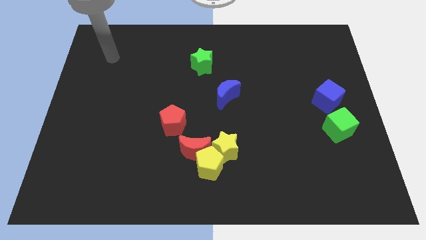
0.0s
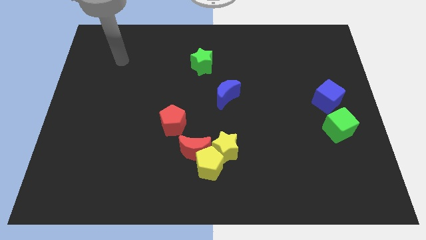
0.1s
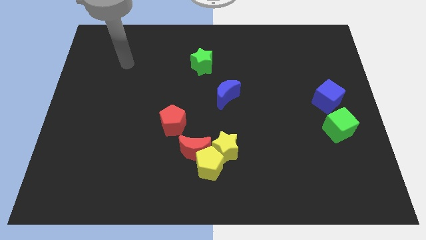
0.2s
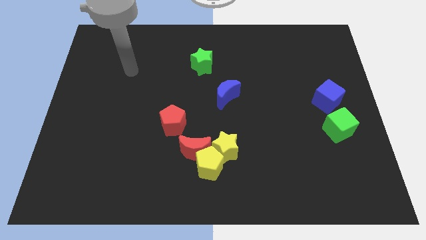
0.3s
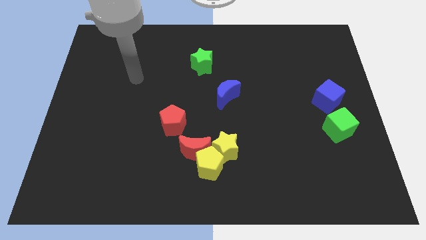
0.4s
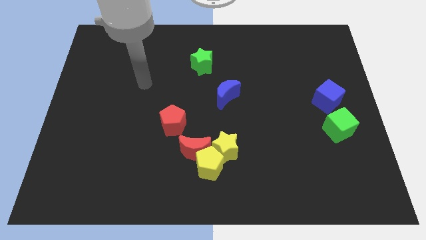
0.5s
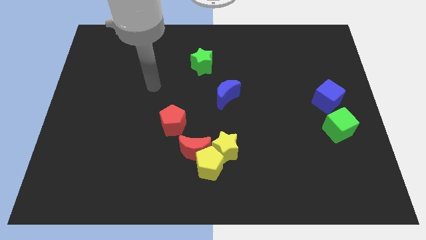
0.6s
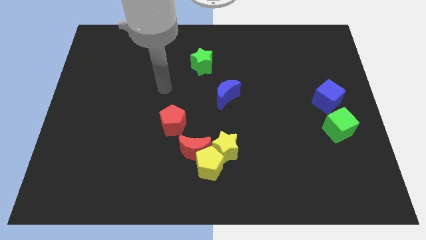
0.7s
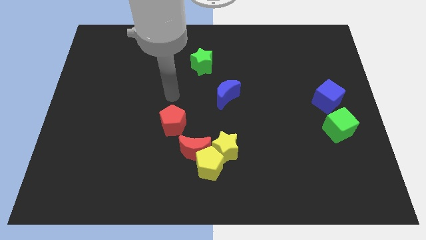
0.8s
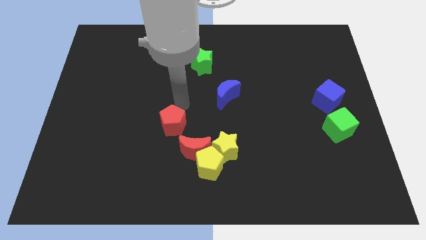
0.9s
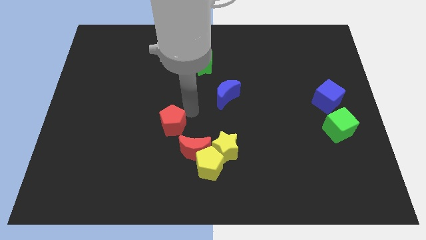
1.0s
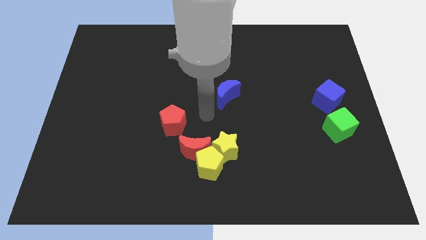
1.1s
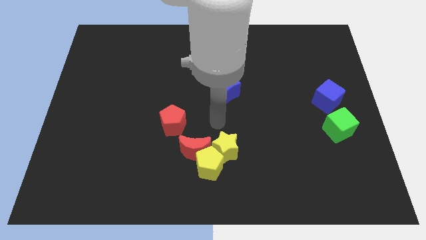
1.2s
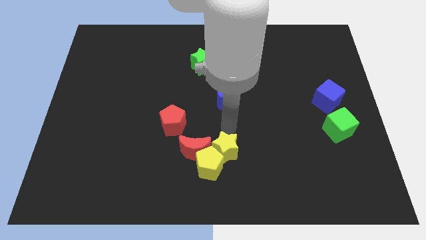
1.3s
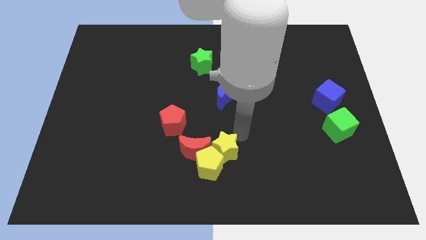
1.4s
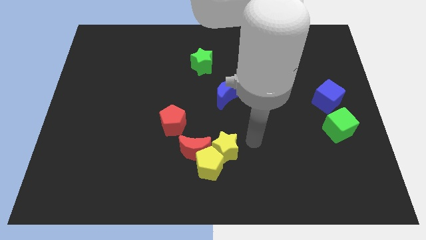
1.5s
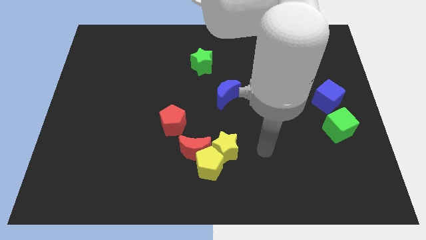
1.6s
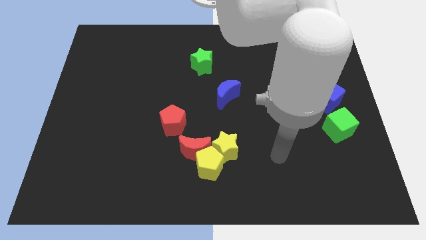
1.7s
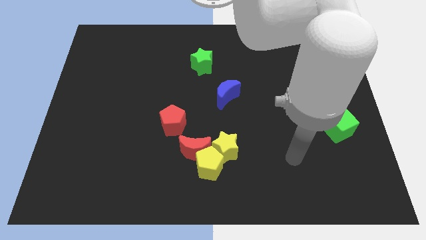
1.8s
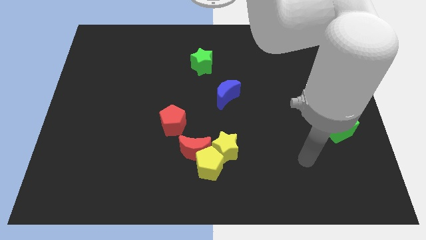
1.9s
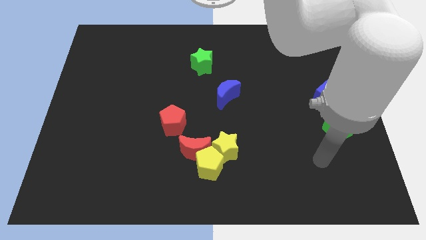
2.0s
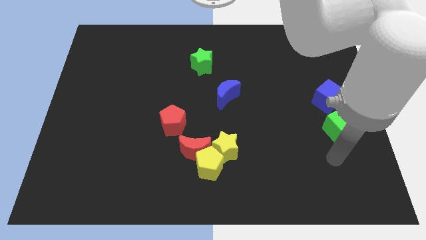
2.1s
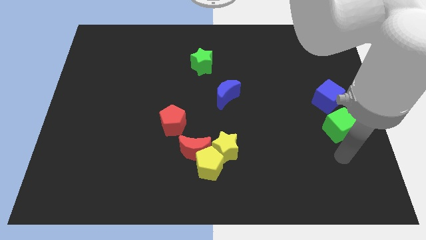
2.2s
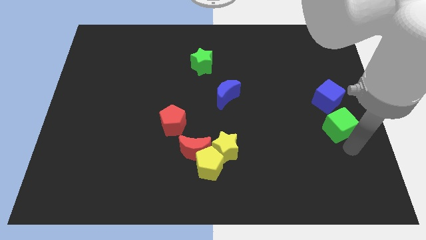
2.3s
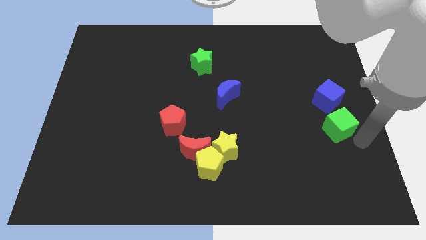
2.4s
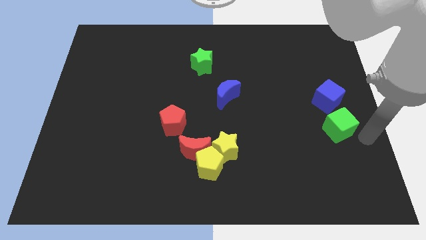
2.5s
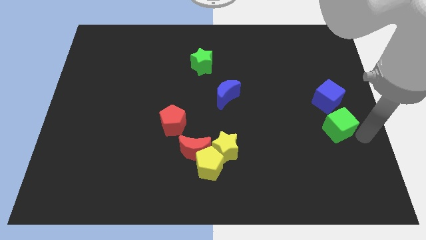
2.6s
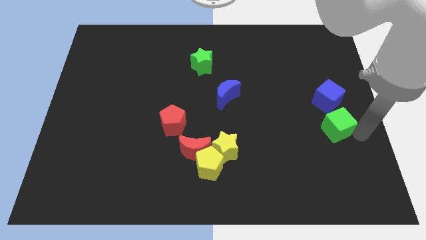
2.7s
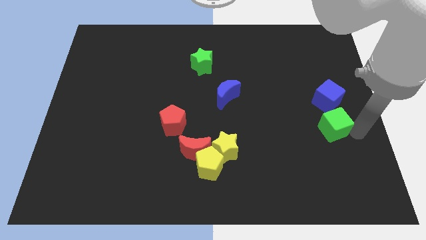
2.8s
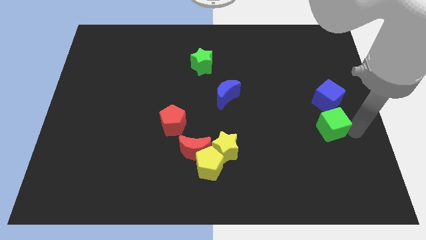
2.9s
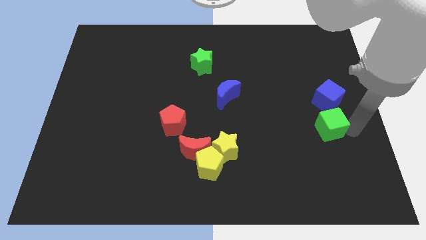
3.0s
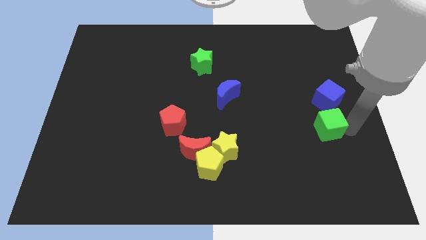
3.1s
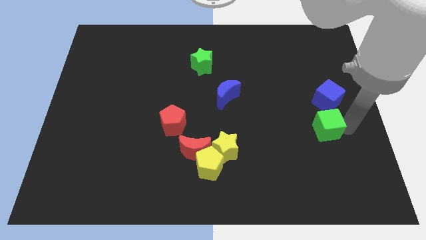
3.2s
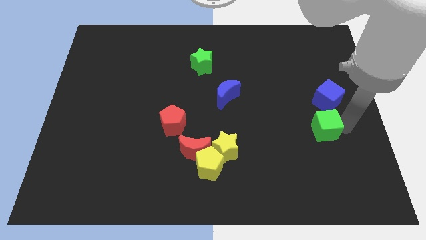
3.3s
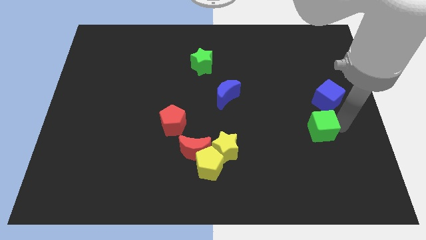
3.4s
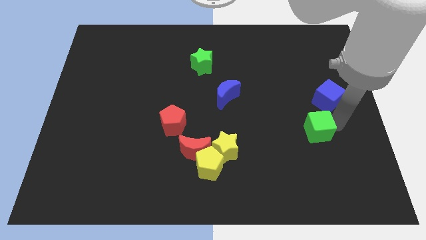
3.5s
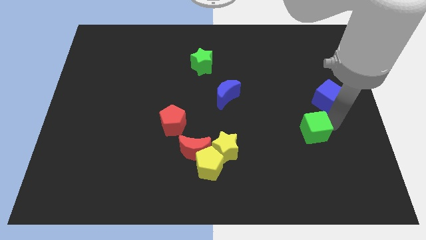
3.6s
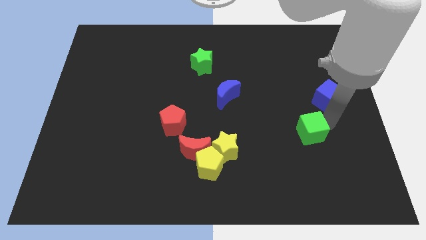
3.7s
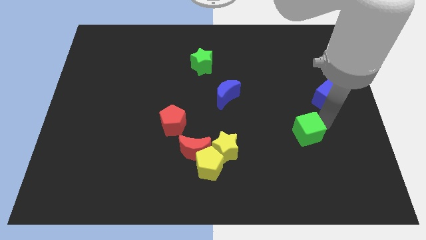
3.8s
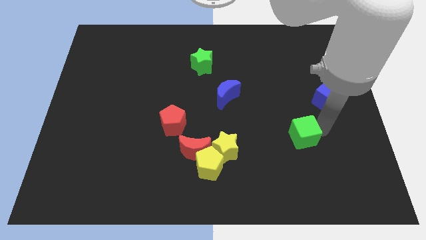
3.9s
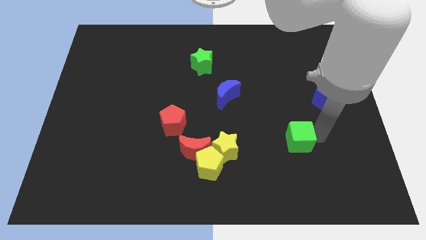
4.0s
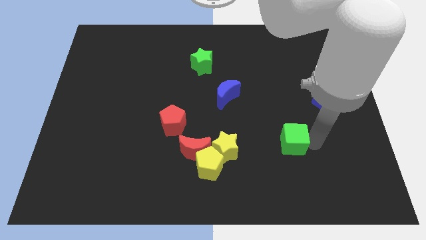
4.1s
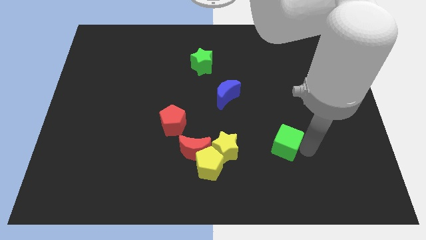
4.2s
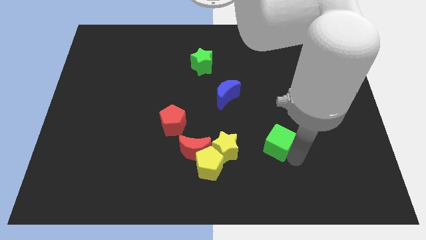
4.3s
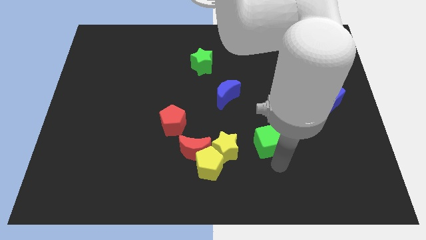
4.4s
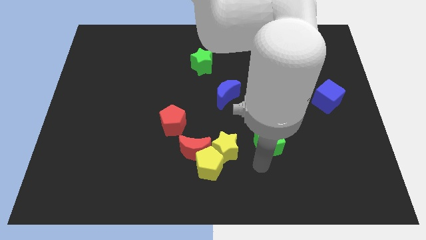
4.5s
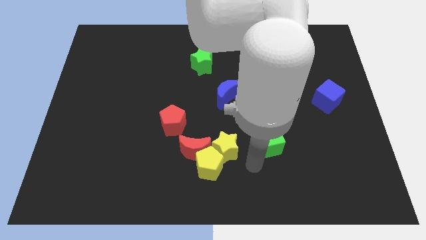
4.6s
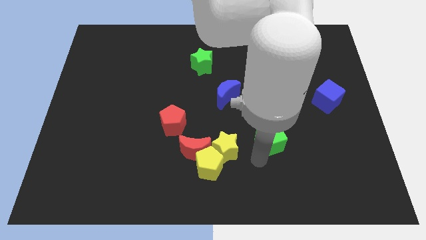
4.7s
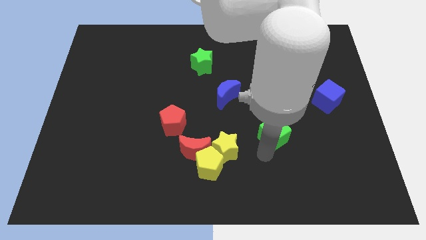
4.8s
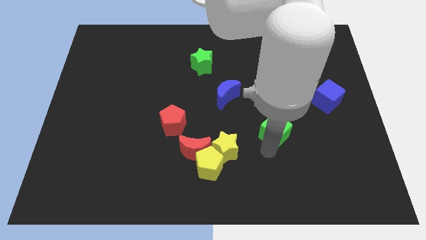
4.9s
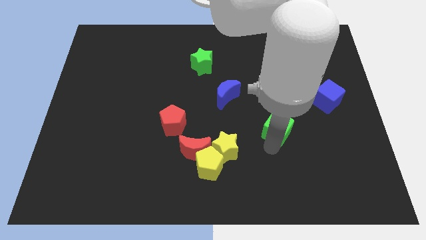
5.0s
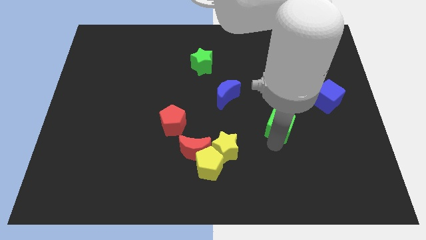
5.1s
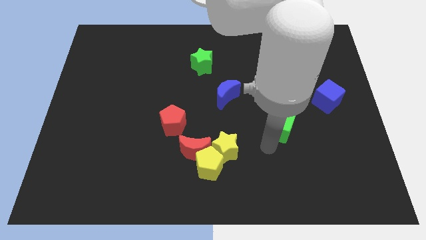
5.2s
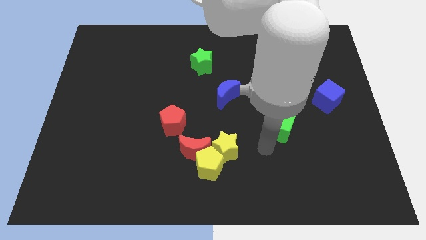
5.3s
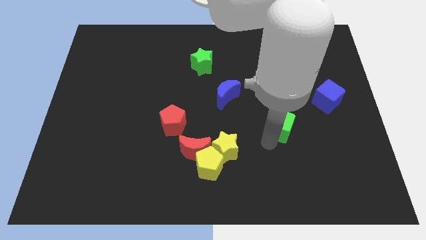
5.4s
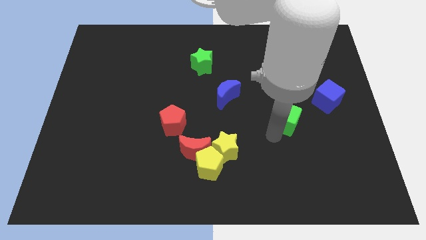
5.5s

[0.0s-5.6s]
slide the green cube a little diagonally upwards and left

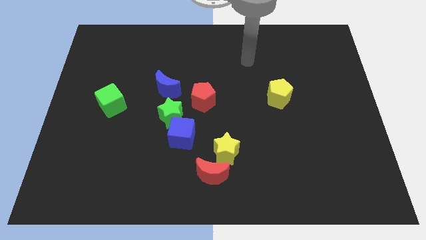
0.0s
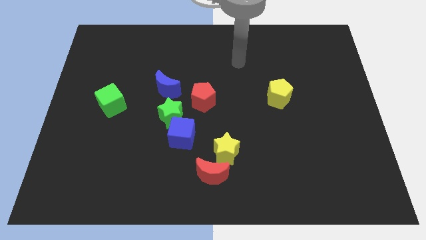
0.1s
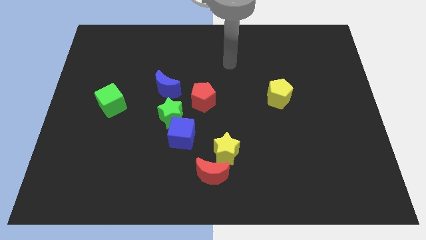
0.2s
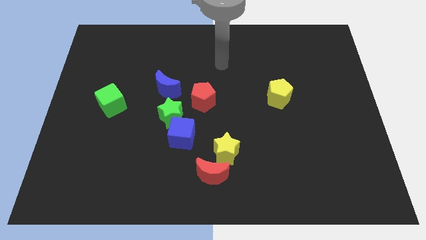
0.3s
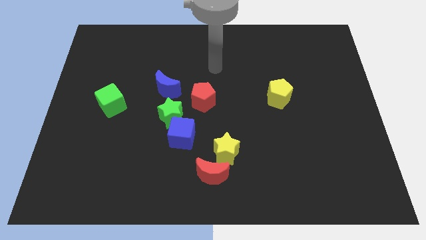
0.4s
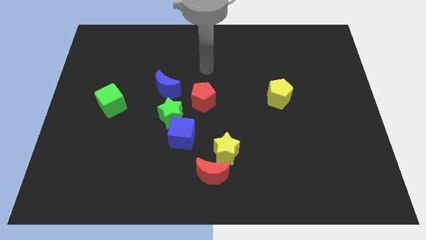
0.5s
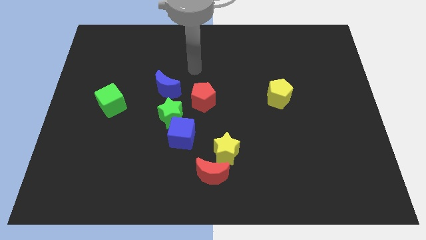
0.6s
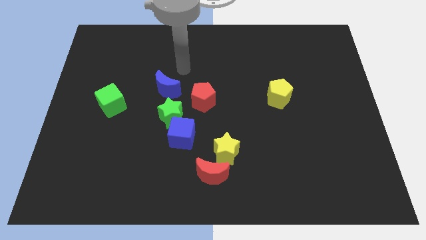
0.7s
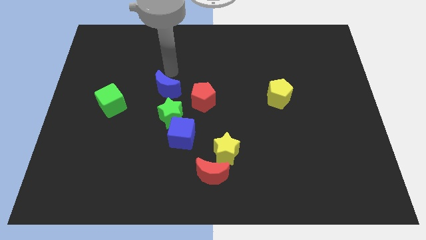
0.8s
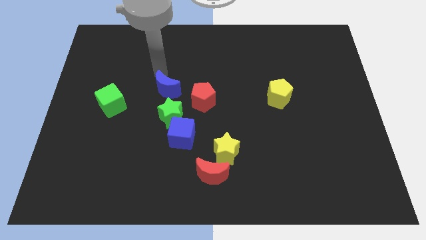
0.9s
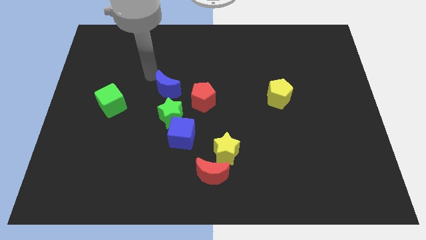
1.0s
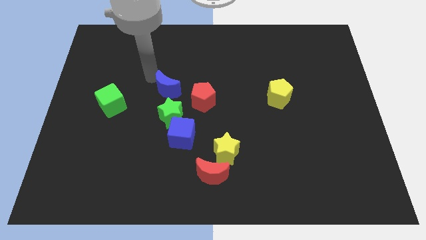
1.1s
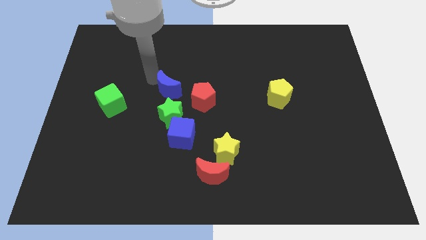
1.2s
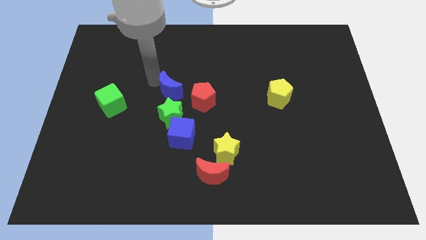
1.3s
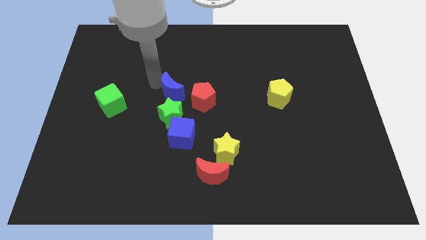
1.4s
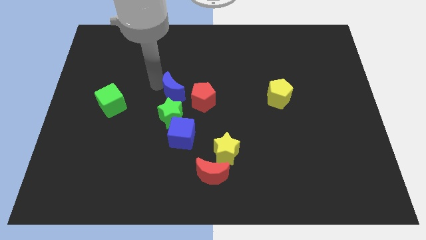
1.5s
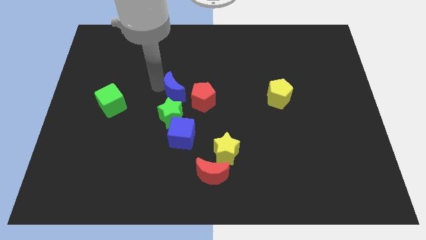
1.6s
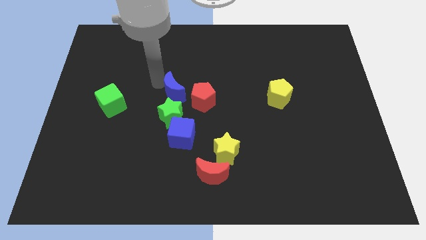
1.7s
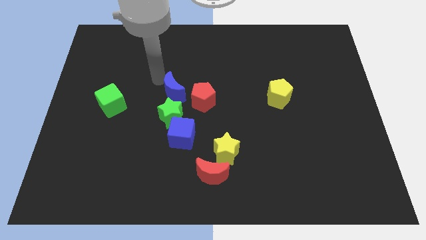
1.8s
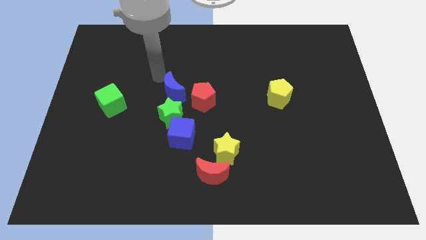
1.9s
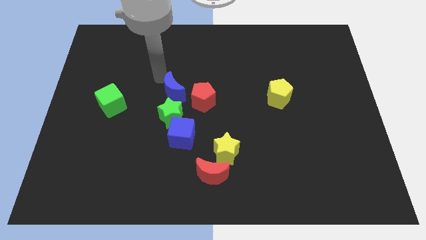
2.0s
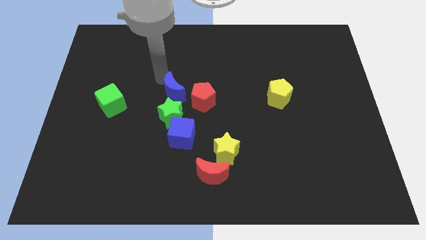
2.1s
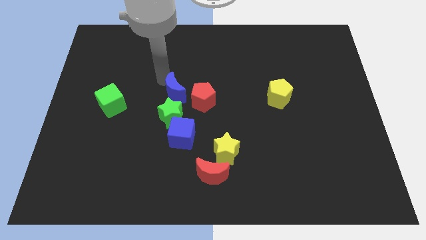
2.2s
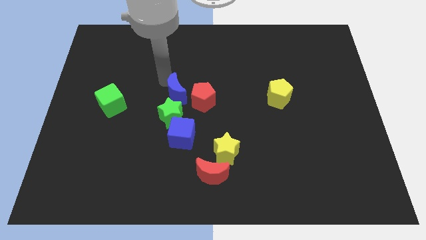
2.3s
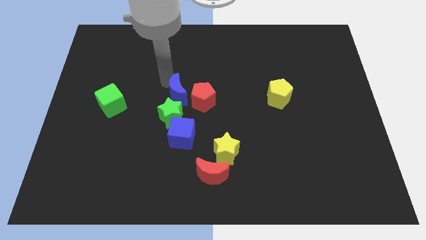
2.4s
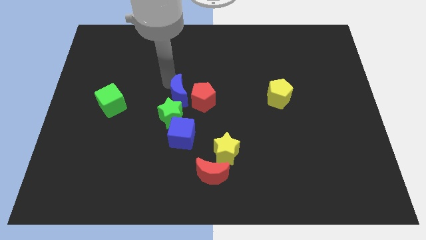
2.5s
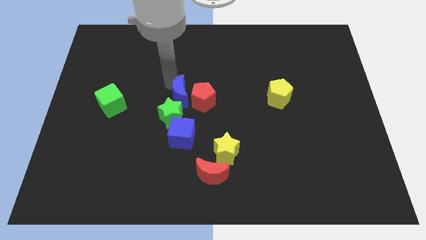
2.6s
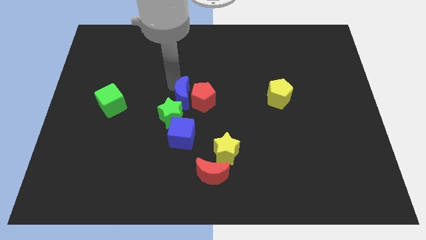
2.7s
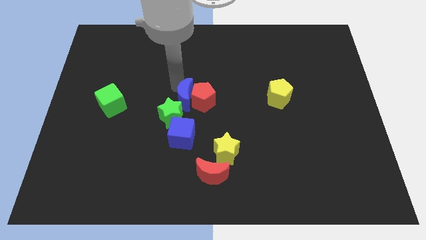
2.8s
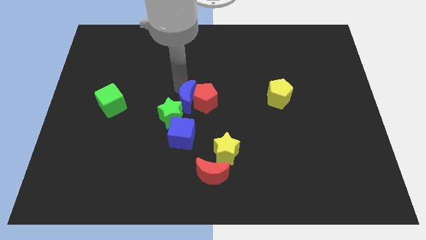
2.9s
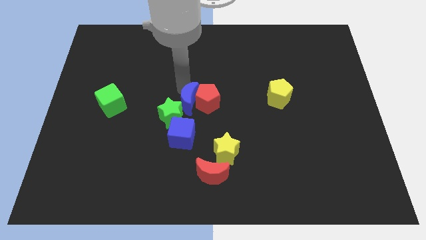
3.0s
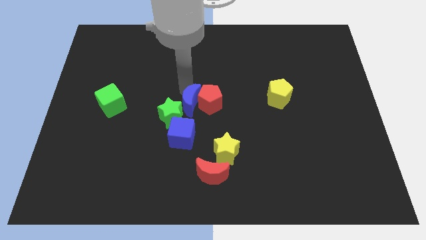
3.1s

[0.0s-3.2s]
slightly push the blue moon down and to the right
